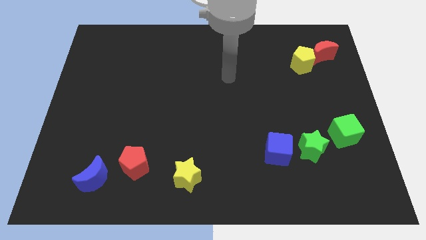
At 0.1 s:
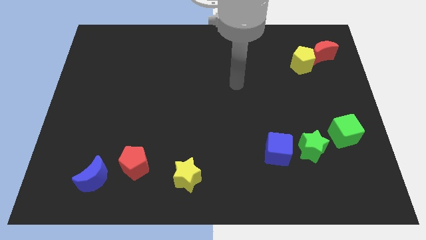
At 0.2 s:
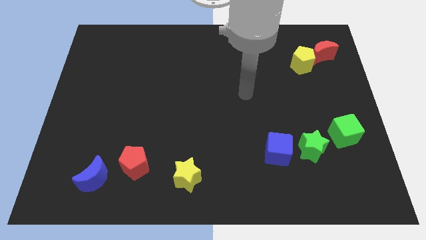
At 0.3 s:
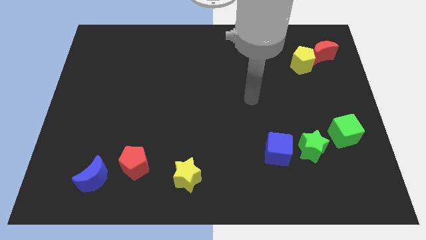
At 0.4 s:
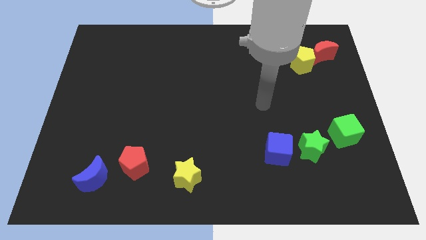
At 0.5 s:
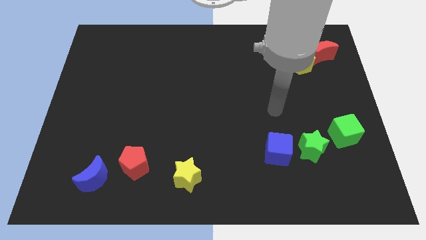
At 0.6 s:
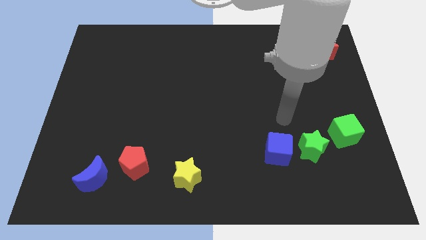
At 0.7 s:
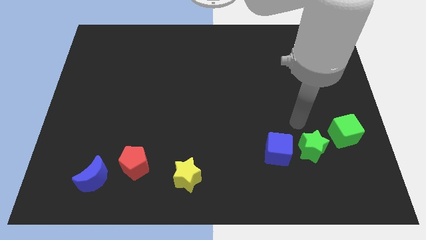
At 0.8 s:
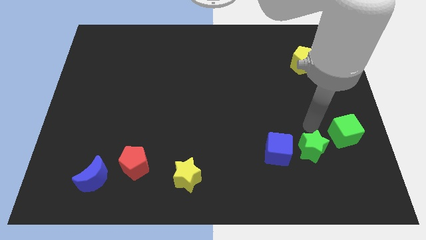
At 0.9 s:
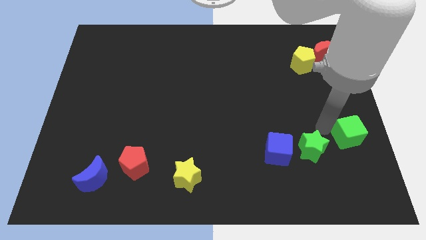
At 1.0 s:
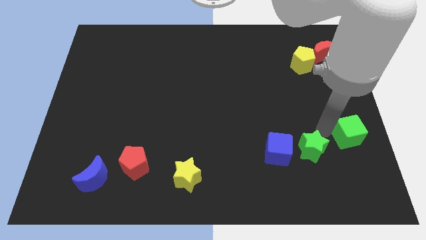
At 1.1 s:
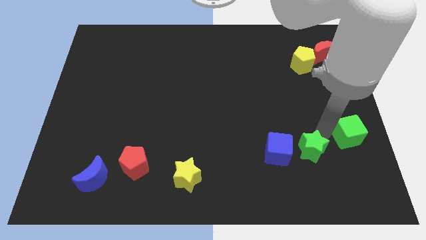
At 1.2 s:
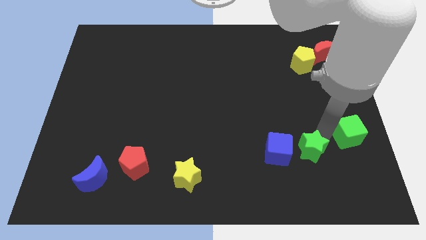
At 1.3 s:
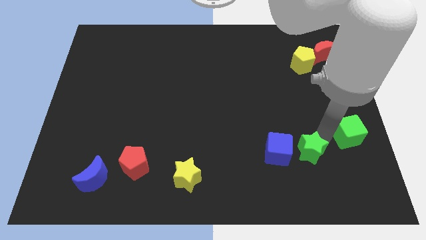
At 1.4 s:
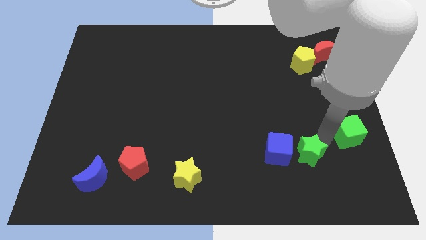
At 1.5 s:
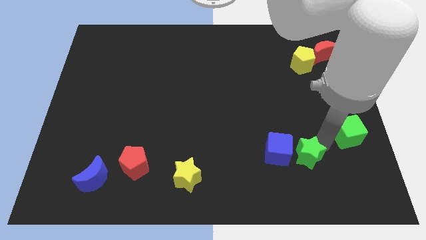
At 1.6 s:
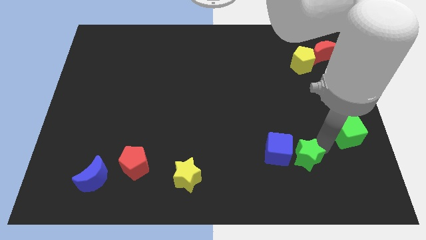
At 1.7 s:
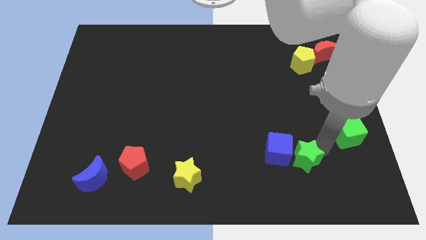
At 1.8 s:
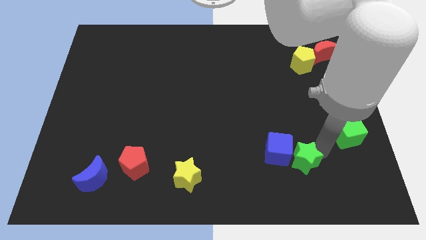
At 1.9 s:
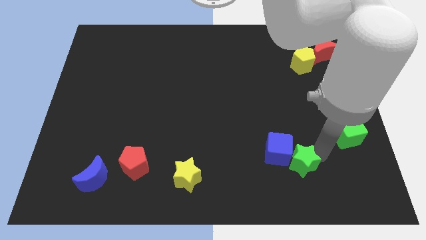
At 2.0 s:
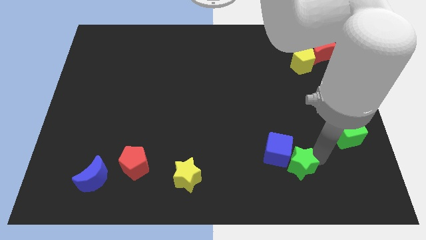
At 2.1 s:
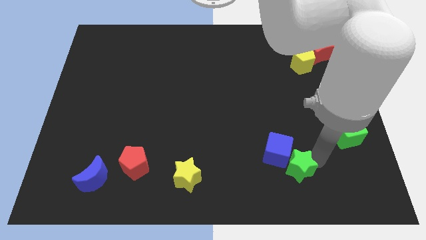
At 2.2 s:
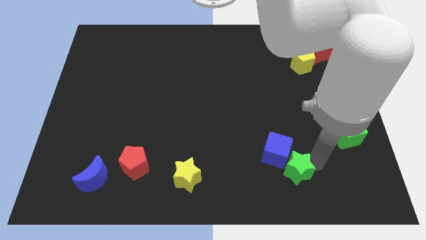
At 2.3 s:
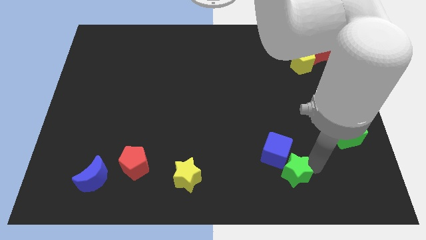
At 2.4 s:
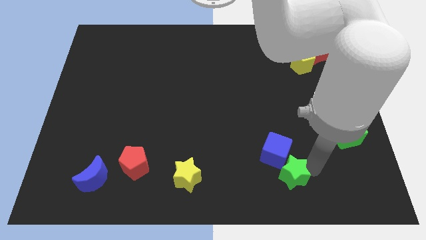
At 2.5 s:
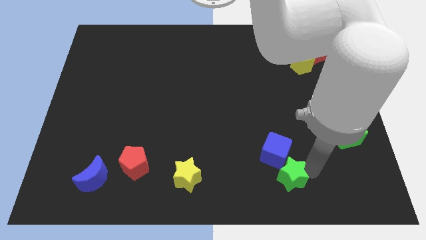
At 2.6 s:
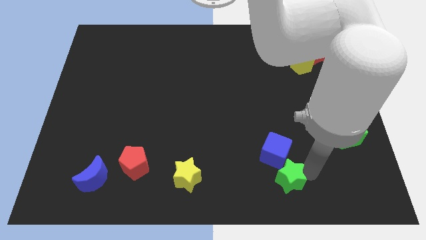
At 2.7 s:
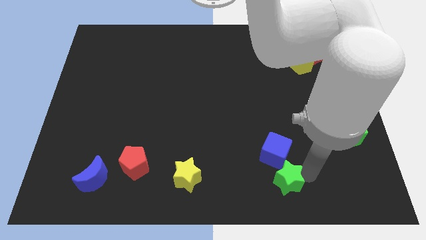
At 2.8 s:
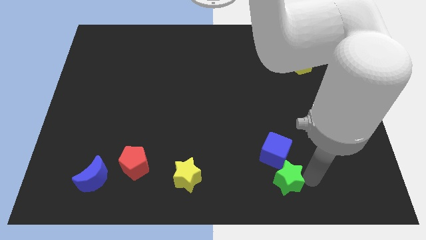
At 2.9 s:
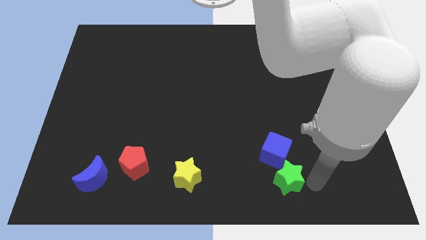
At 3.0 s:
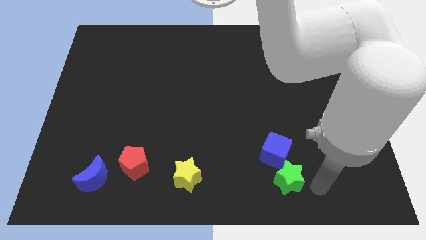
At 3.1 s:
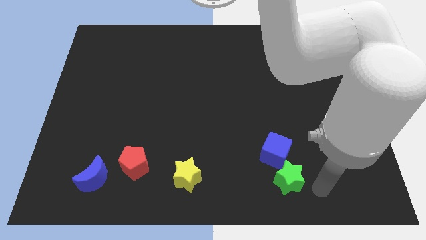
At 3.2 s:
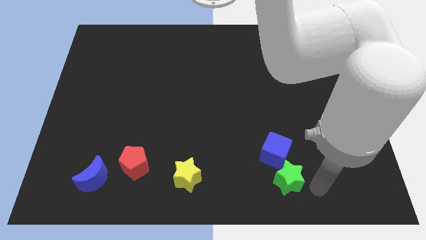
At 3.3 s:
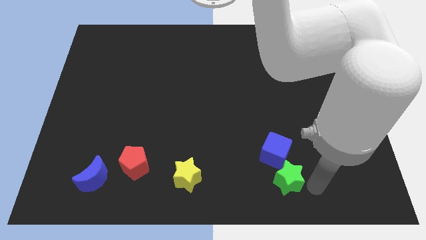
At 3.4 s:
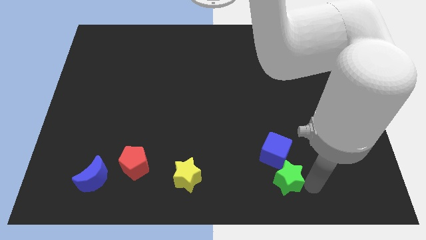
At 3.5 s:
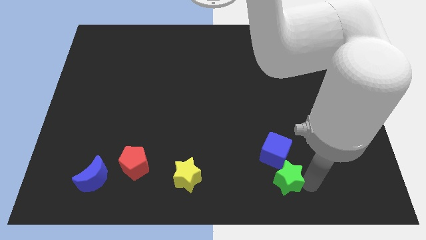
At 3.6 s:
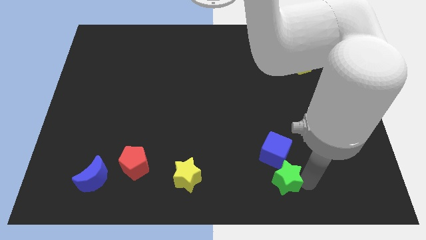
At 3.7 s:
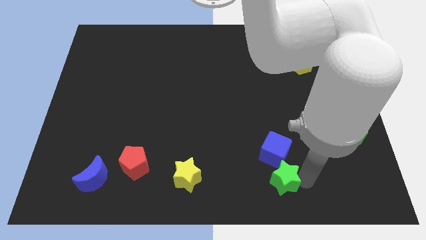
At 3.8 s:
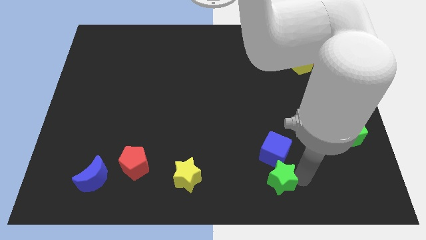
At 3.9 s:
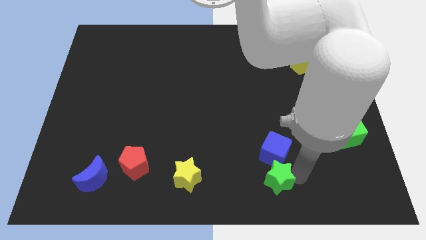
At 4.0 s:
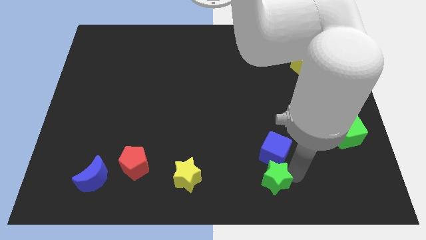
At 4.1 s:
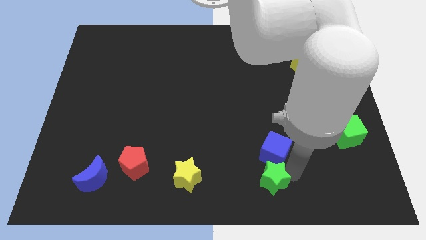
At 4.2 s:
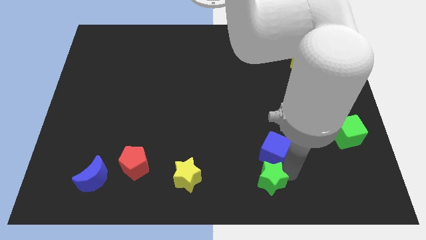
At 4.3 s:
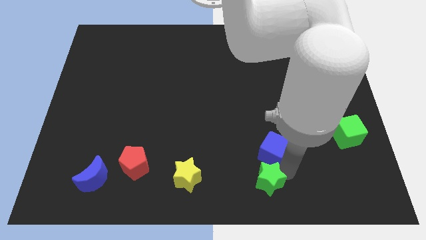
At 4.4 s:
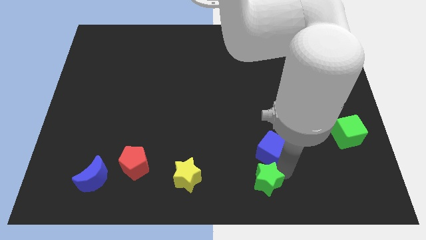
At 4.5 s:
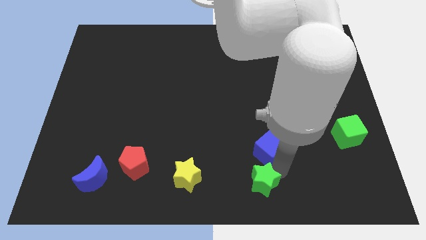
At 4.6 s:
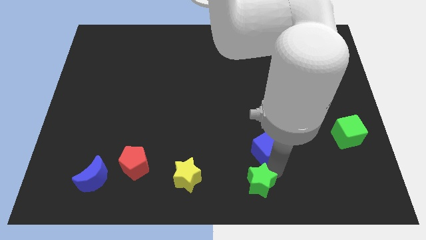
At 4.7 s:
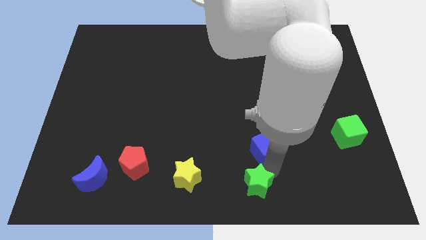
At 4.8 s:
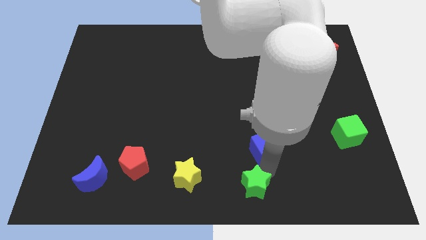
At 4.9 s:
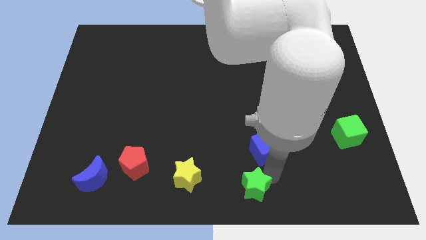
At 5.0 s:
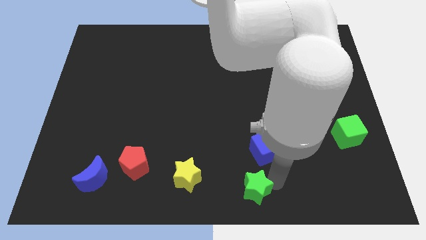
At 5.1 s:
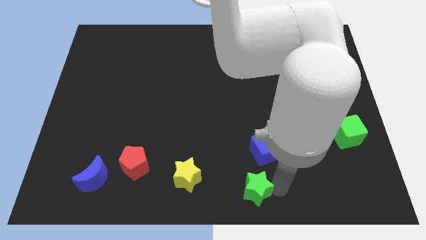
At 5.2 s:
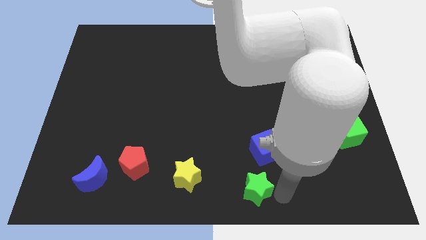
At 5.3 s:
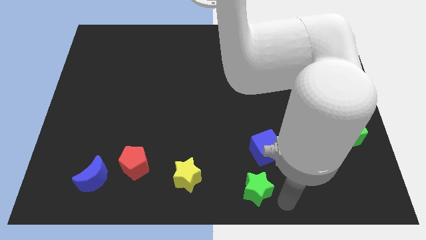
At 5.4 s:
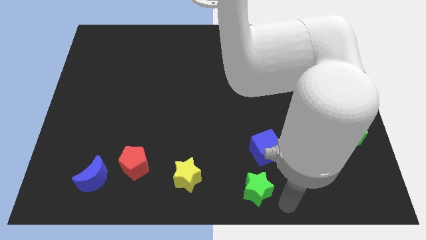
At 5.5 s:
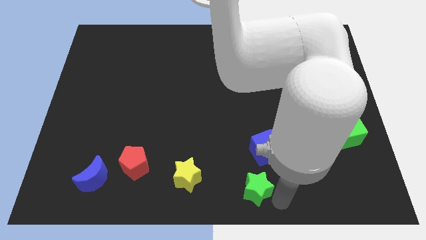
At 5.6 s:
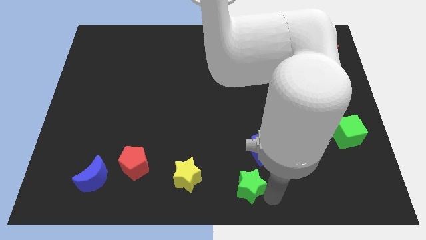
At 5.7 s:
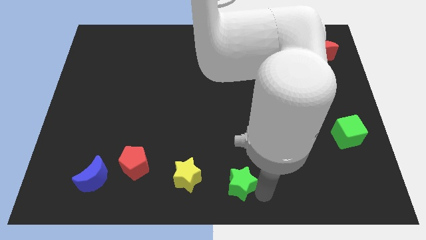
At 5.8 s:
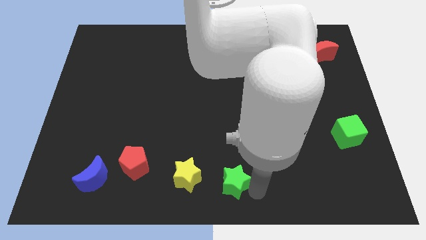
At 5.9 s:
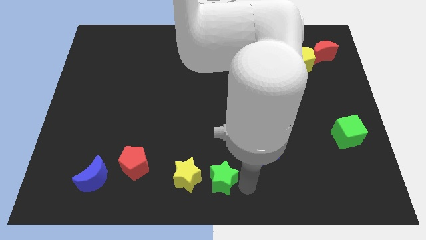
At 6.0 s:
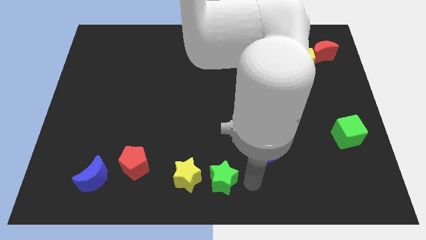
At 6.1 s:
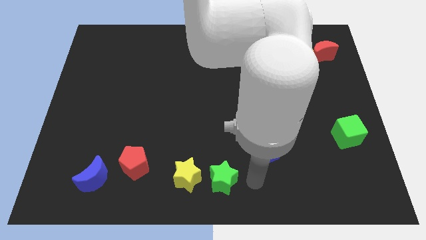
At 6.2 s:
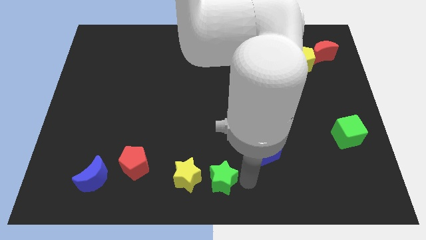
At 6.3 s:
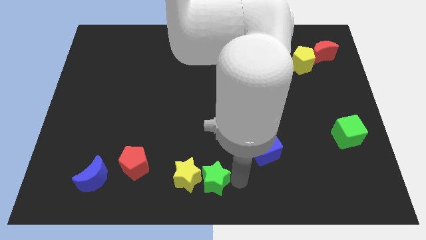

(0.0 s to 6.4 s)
slide the green star next to the yellow star

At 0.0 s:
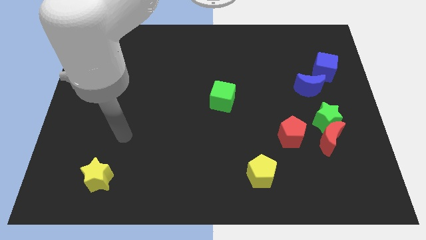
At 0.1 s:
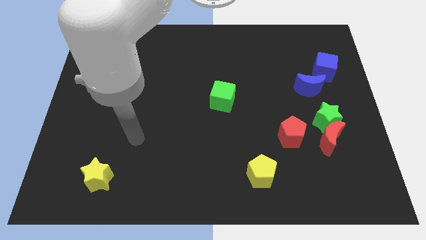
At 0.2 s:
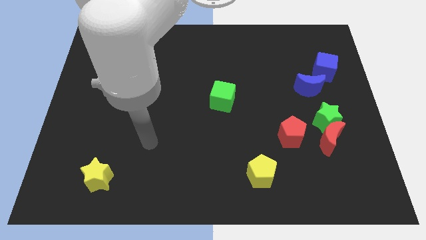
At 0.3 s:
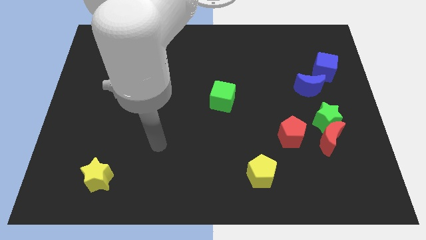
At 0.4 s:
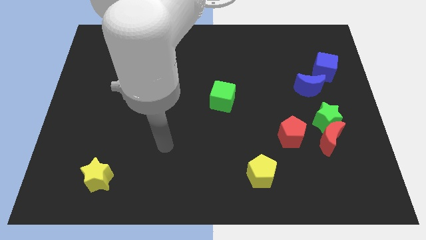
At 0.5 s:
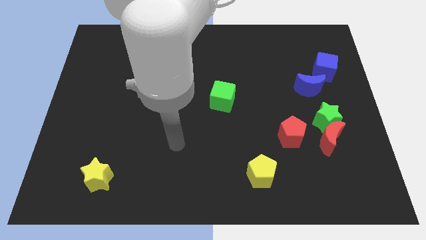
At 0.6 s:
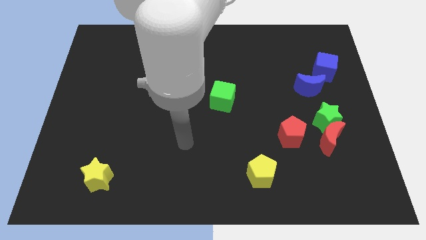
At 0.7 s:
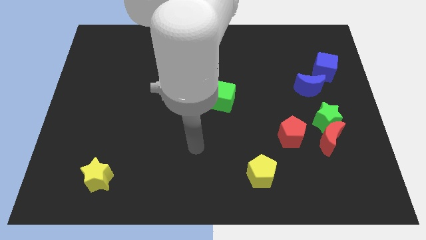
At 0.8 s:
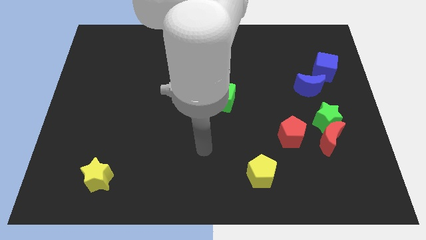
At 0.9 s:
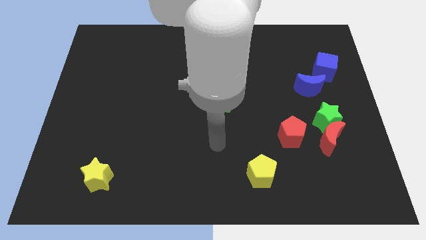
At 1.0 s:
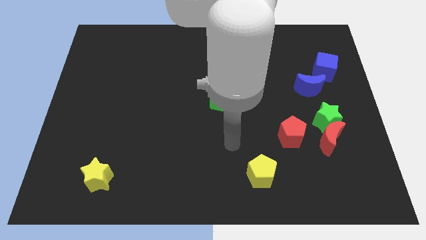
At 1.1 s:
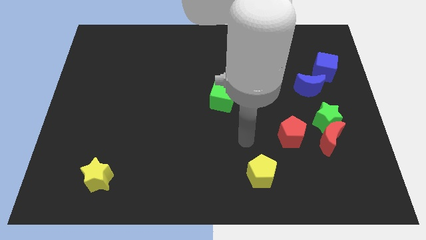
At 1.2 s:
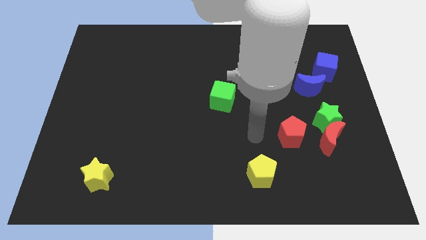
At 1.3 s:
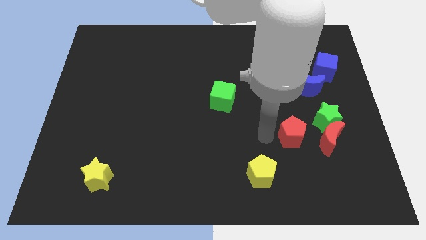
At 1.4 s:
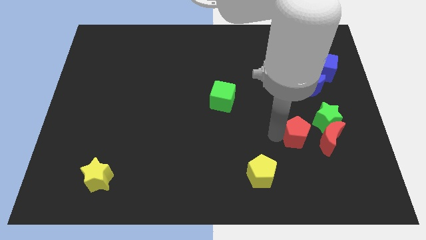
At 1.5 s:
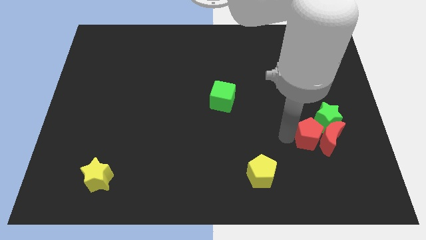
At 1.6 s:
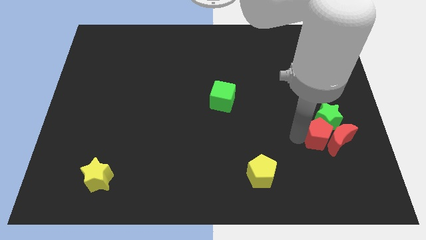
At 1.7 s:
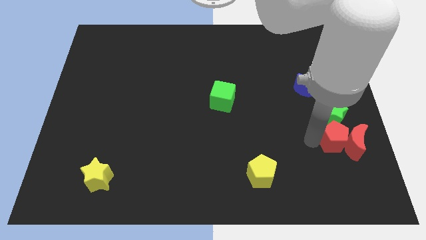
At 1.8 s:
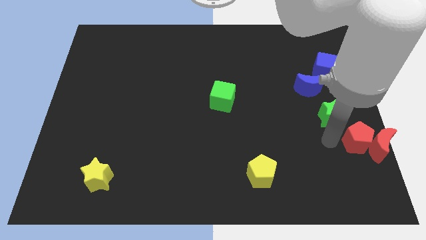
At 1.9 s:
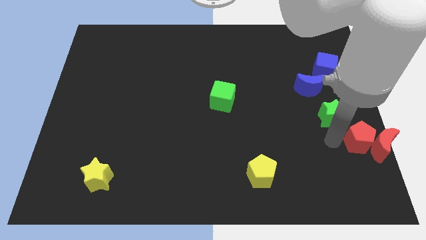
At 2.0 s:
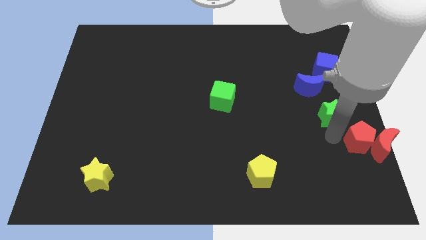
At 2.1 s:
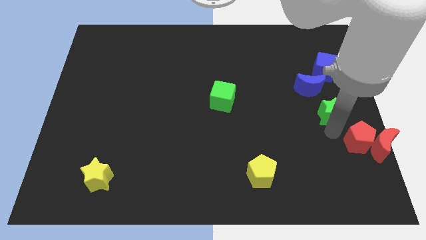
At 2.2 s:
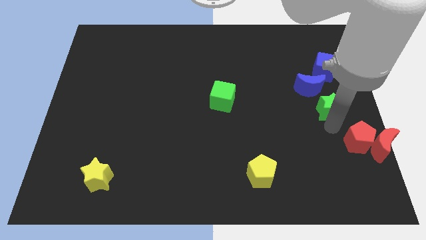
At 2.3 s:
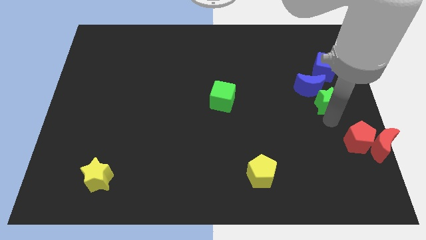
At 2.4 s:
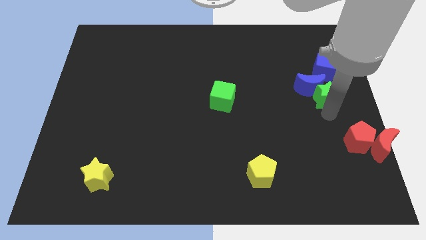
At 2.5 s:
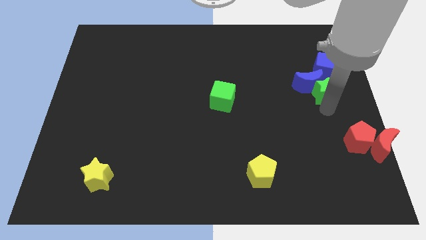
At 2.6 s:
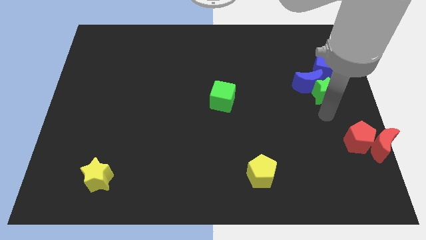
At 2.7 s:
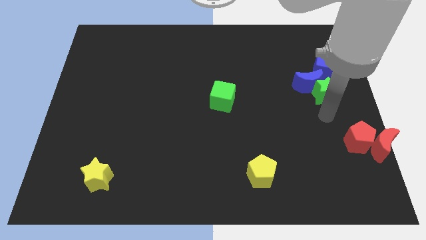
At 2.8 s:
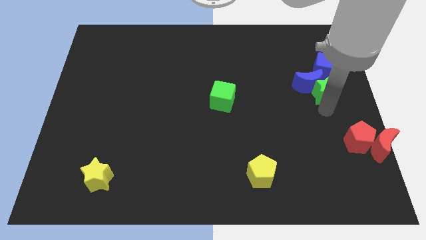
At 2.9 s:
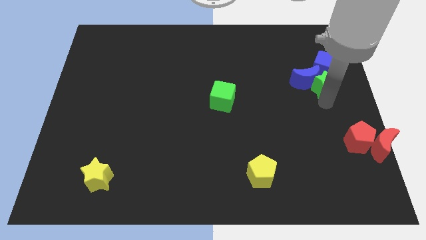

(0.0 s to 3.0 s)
slide the green star to the blue cube
